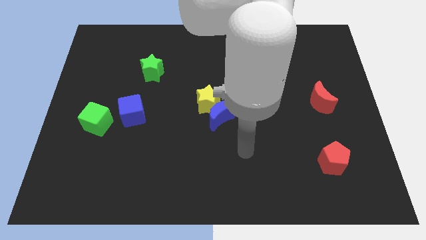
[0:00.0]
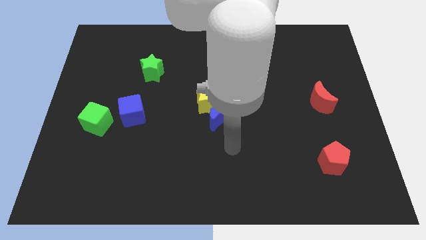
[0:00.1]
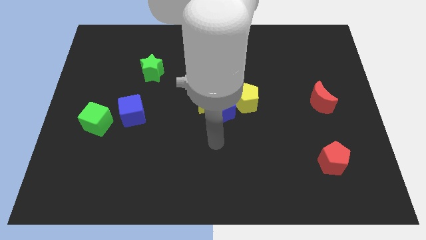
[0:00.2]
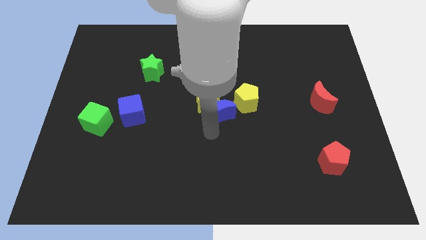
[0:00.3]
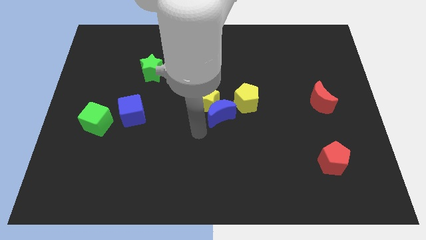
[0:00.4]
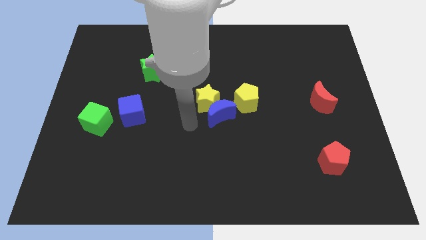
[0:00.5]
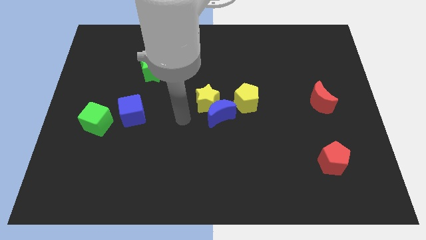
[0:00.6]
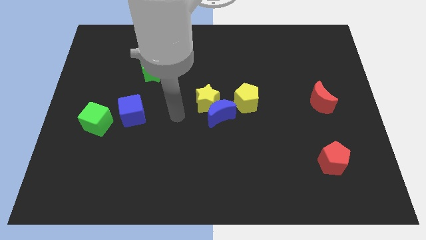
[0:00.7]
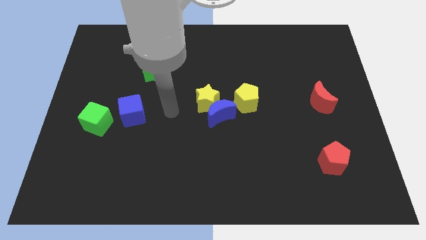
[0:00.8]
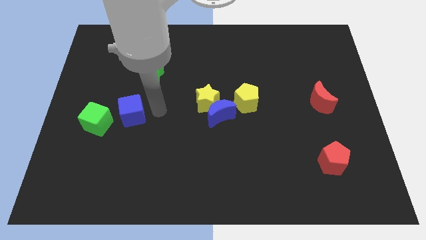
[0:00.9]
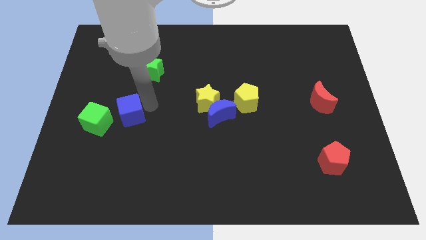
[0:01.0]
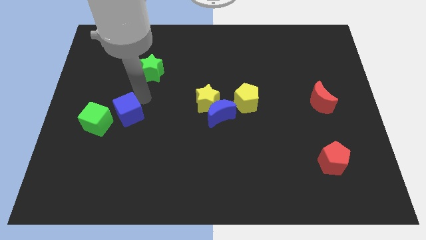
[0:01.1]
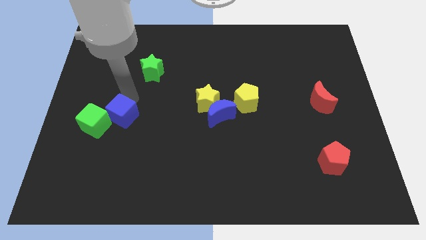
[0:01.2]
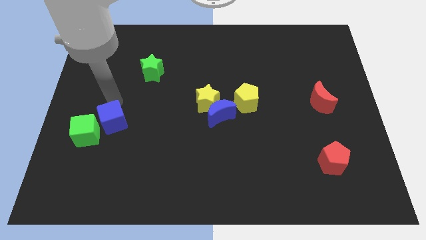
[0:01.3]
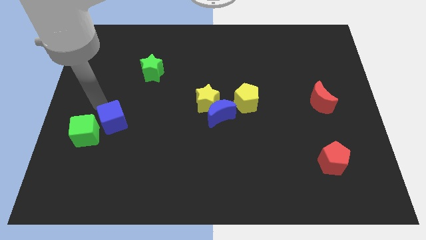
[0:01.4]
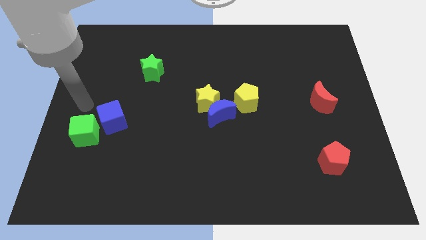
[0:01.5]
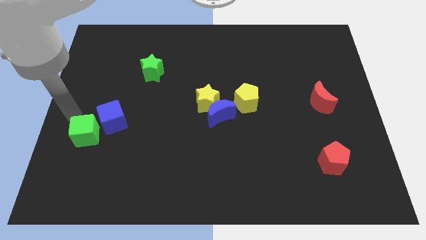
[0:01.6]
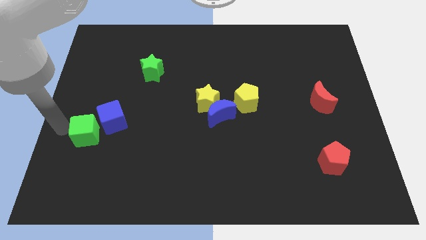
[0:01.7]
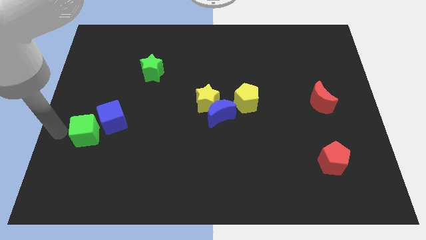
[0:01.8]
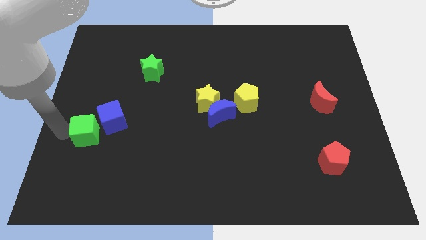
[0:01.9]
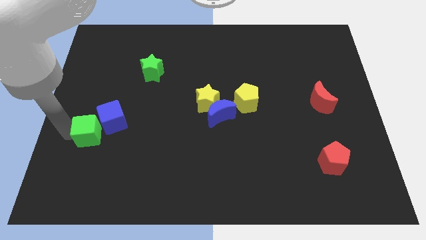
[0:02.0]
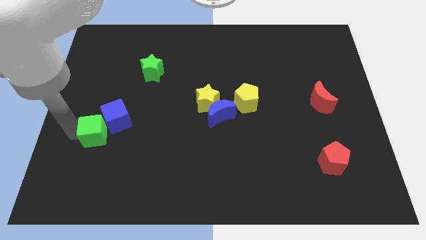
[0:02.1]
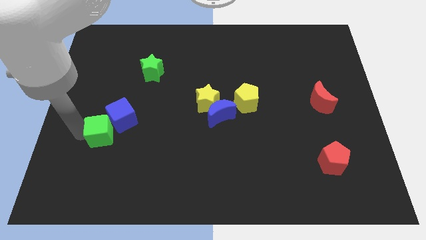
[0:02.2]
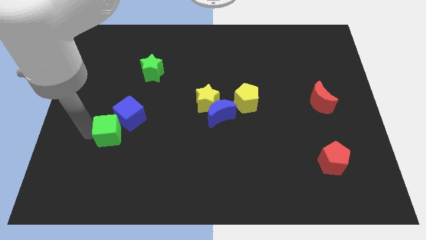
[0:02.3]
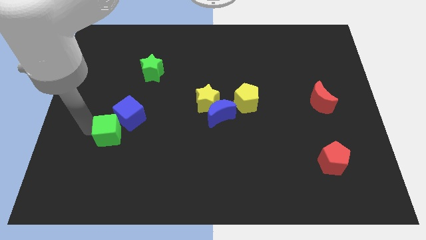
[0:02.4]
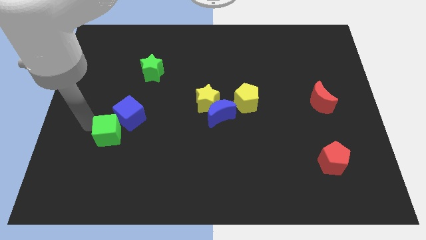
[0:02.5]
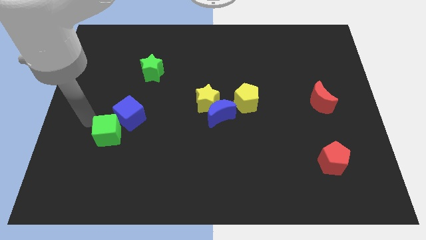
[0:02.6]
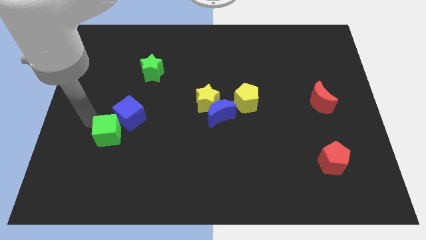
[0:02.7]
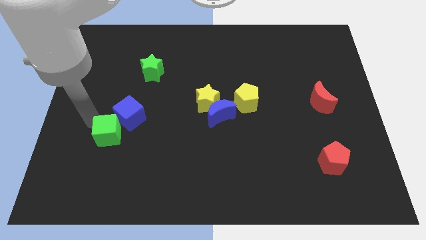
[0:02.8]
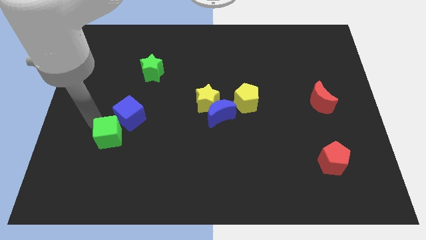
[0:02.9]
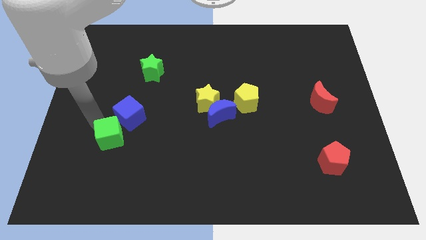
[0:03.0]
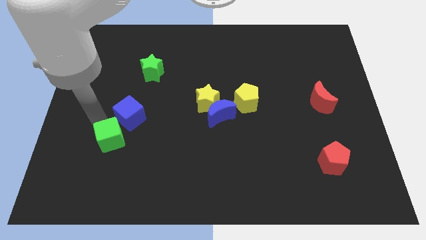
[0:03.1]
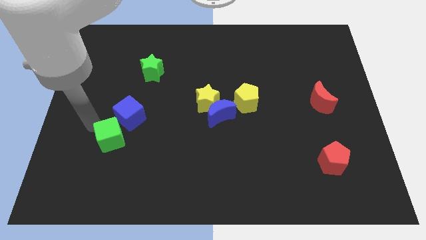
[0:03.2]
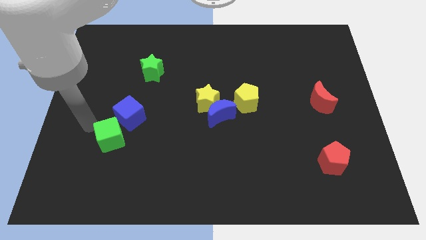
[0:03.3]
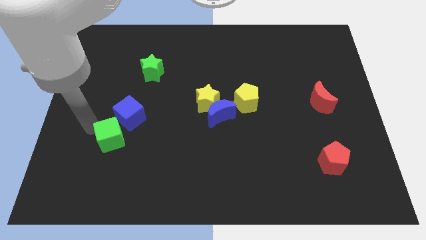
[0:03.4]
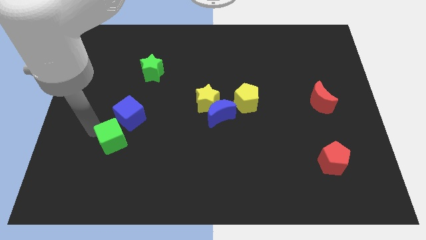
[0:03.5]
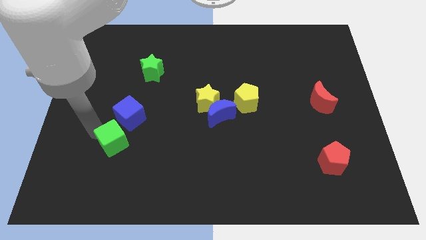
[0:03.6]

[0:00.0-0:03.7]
slightly push the green cube down and right

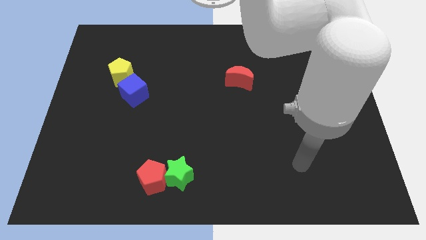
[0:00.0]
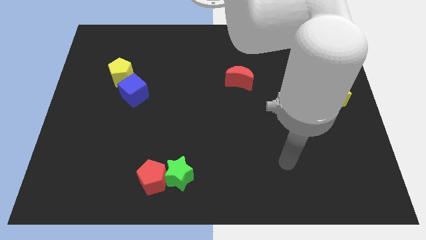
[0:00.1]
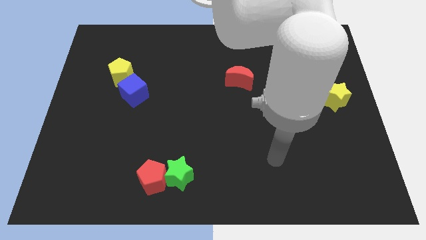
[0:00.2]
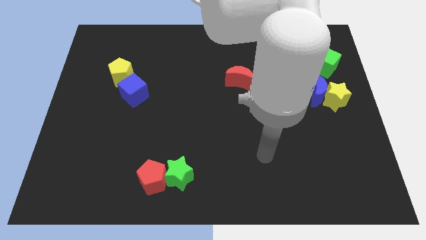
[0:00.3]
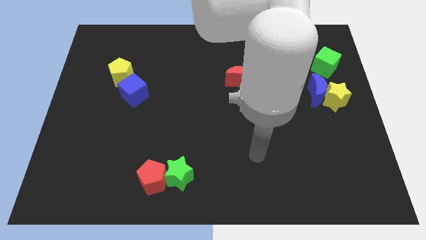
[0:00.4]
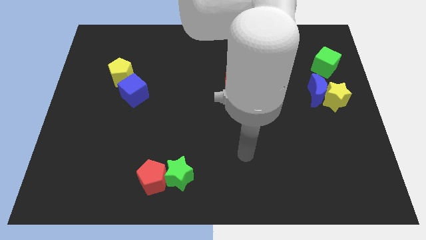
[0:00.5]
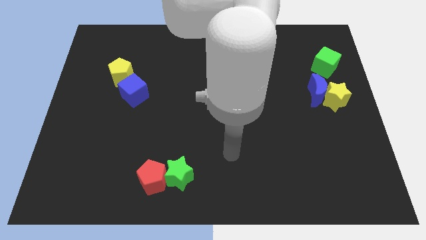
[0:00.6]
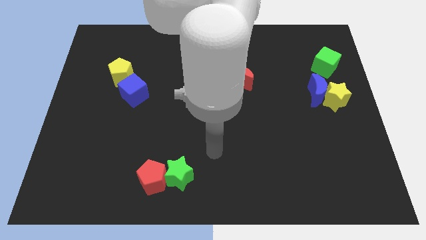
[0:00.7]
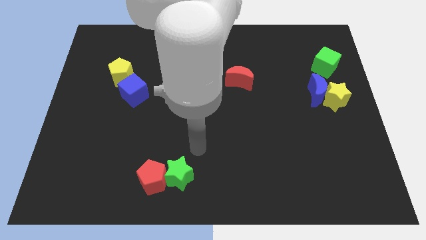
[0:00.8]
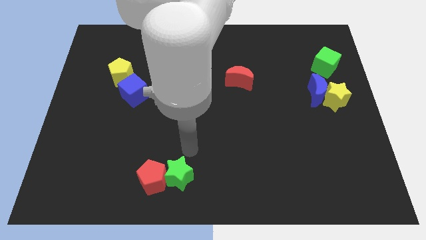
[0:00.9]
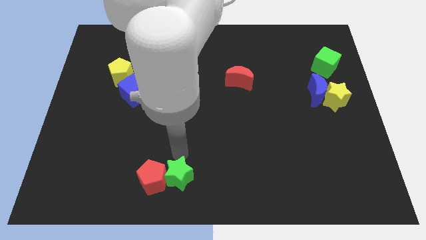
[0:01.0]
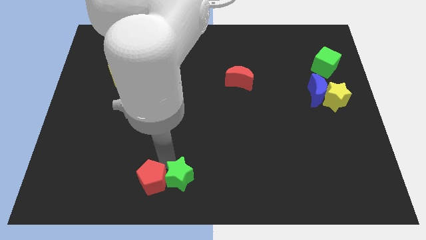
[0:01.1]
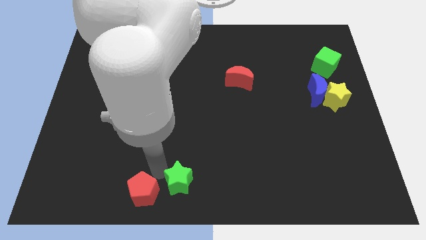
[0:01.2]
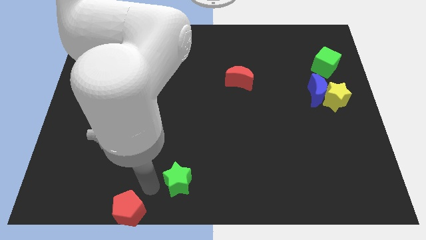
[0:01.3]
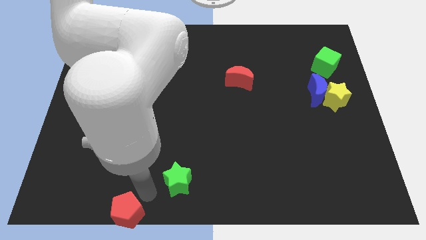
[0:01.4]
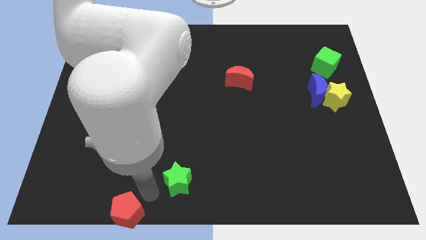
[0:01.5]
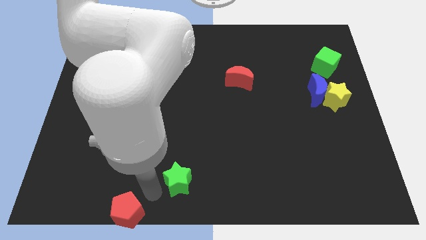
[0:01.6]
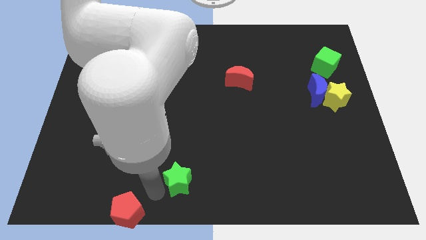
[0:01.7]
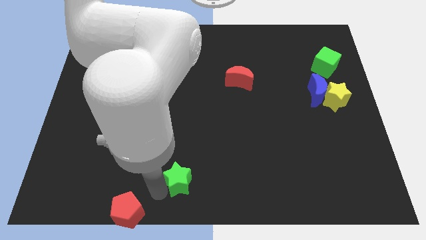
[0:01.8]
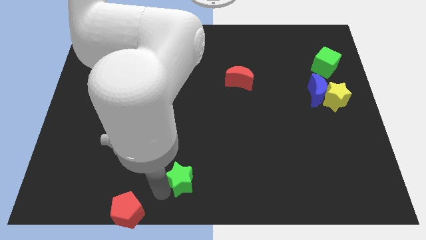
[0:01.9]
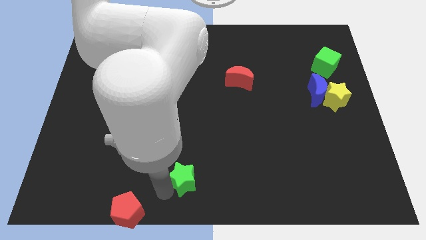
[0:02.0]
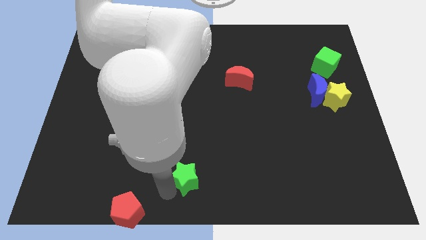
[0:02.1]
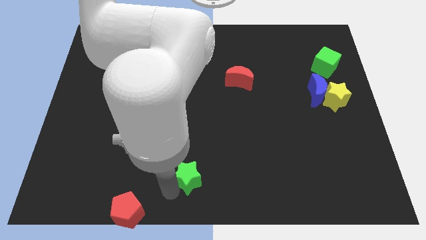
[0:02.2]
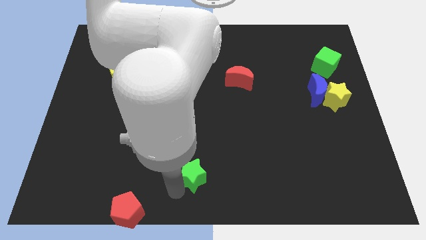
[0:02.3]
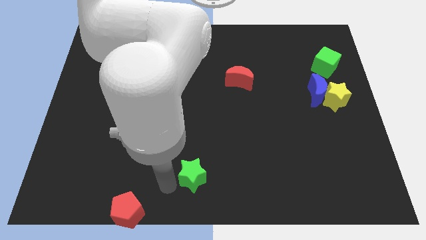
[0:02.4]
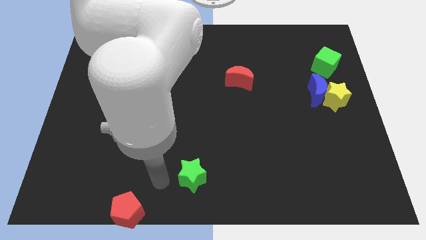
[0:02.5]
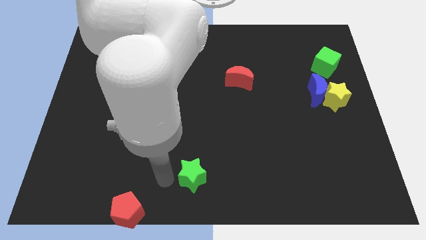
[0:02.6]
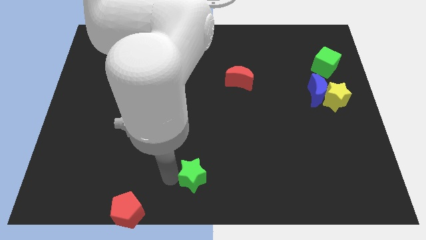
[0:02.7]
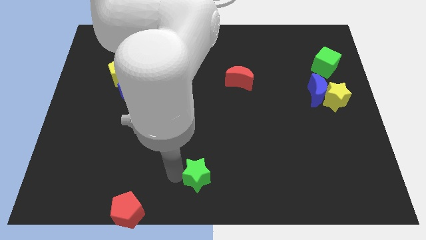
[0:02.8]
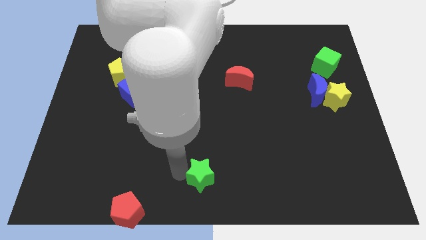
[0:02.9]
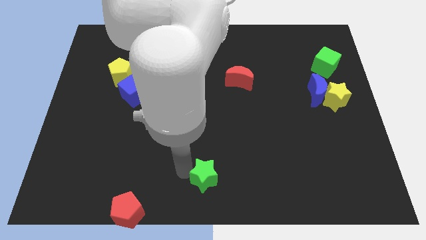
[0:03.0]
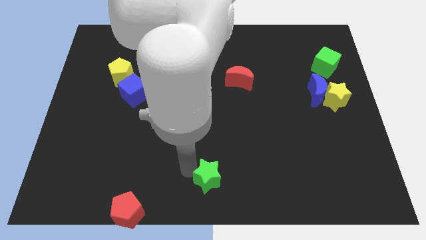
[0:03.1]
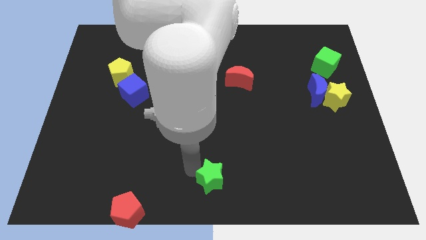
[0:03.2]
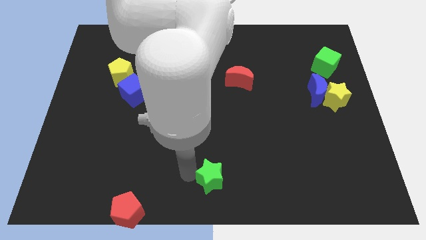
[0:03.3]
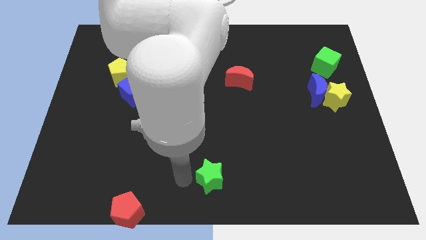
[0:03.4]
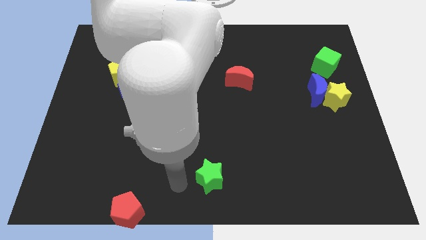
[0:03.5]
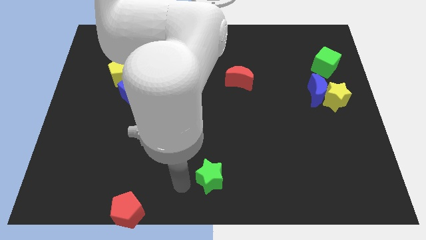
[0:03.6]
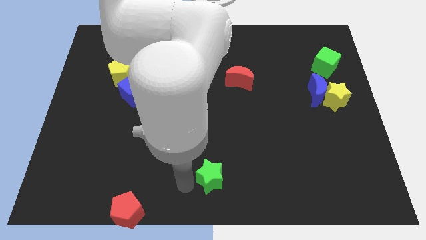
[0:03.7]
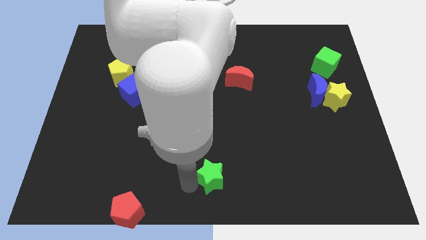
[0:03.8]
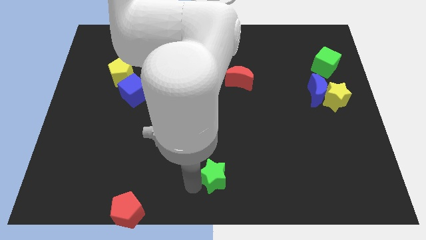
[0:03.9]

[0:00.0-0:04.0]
slide the green star somewhat to the right

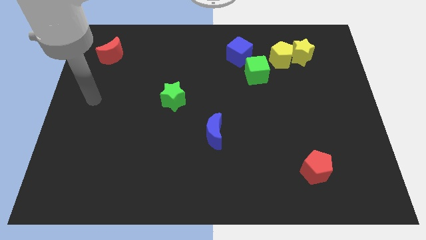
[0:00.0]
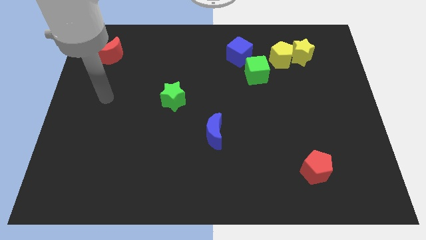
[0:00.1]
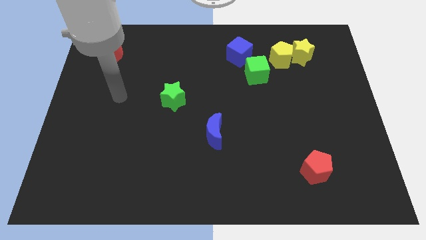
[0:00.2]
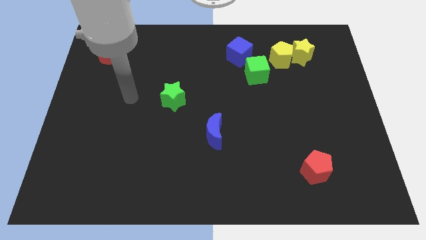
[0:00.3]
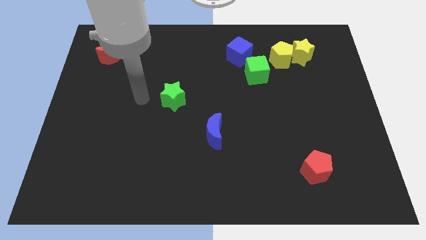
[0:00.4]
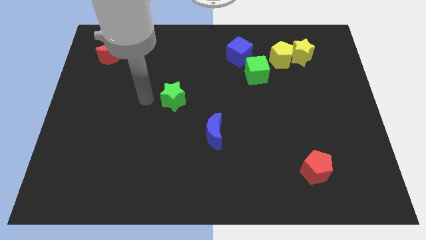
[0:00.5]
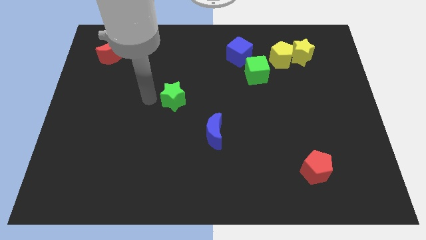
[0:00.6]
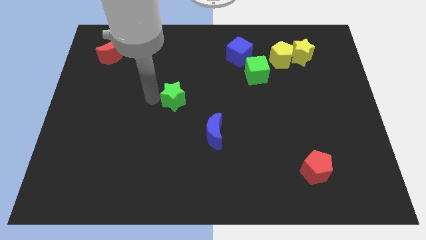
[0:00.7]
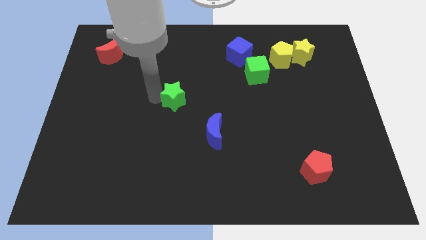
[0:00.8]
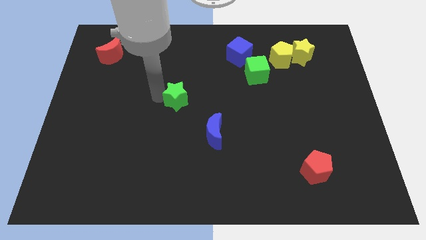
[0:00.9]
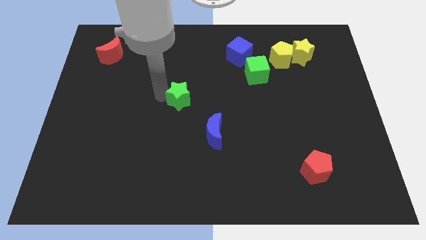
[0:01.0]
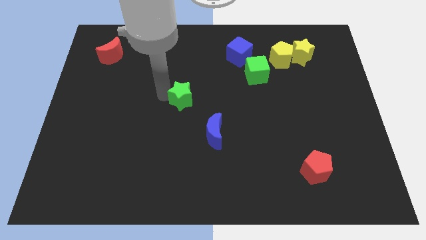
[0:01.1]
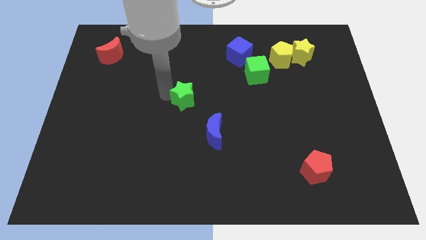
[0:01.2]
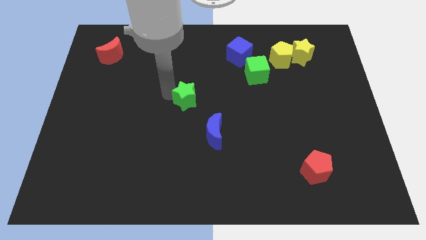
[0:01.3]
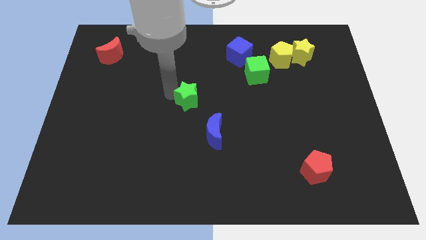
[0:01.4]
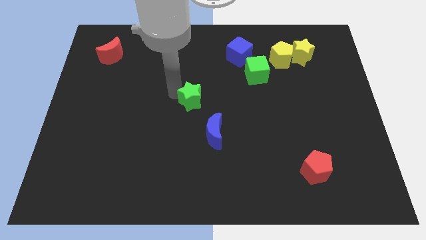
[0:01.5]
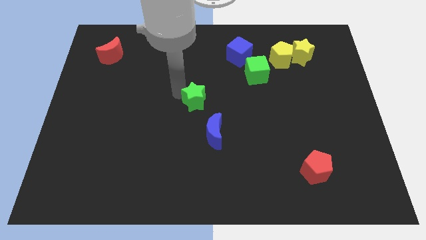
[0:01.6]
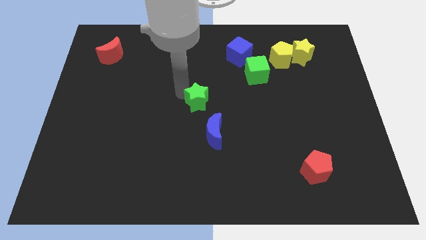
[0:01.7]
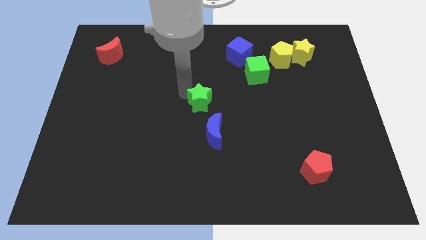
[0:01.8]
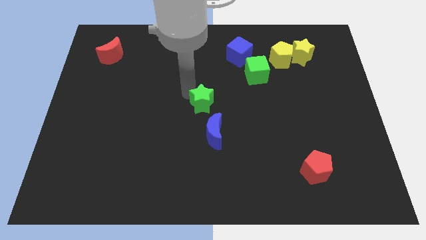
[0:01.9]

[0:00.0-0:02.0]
move the green star slightly to the right
